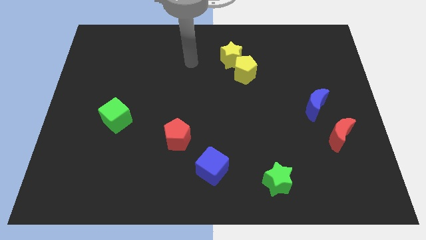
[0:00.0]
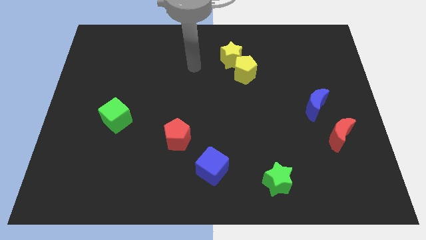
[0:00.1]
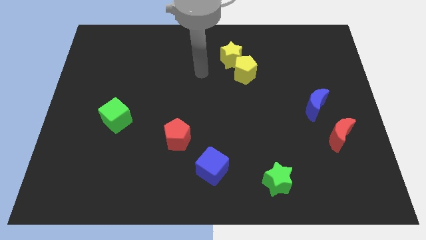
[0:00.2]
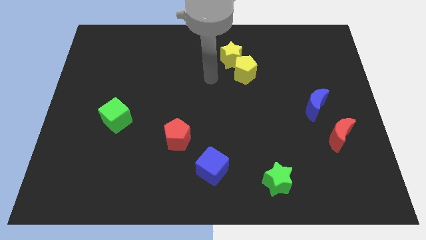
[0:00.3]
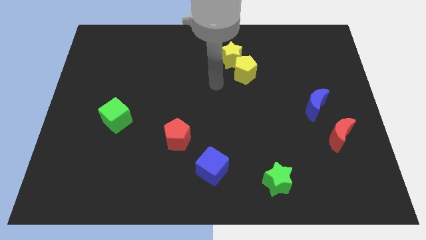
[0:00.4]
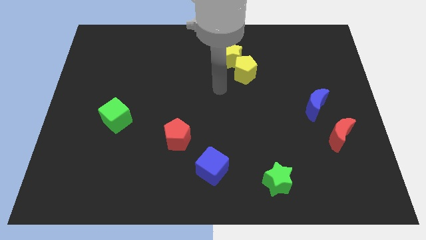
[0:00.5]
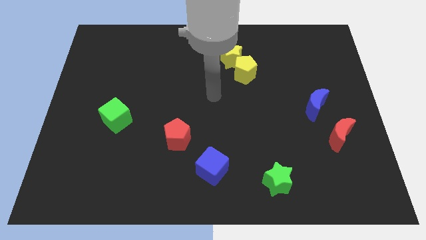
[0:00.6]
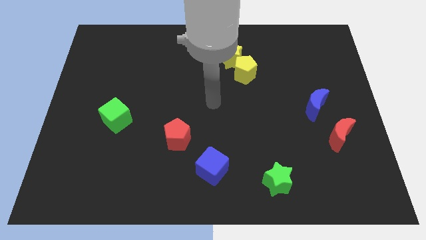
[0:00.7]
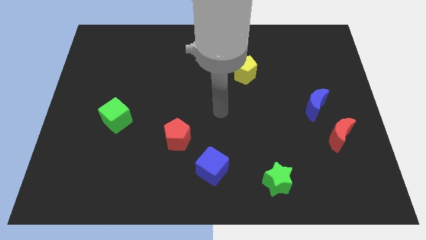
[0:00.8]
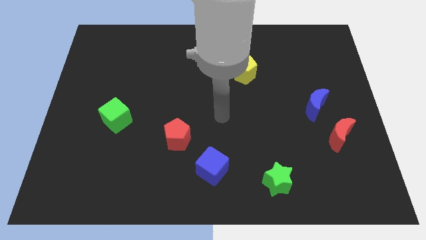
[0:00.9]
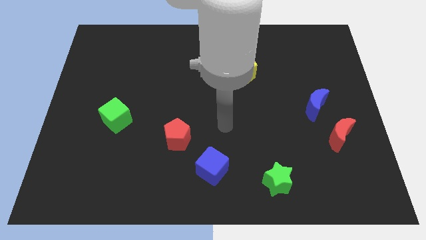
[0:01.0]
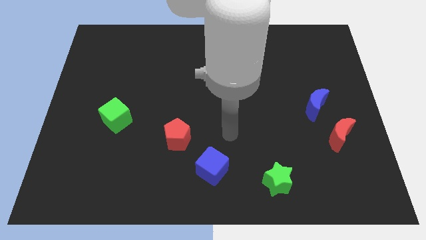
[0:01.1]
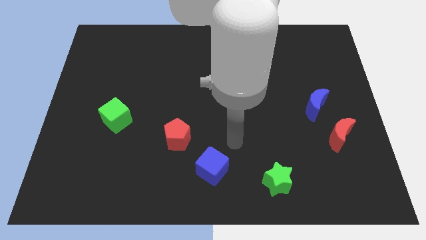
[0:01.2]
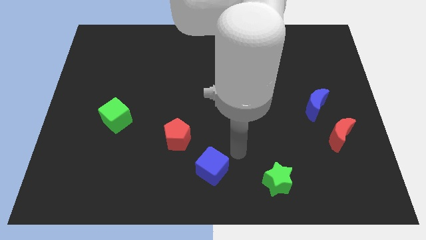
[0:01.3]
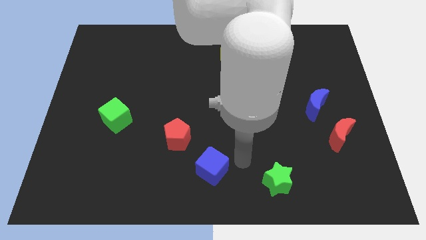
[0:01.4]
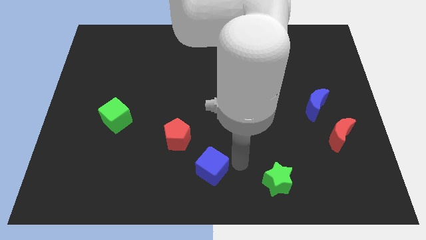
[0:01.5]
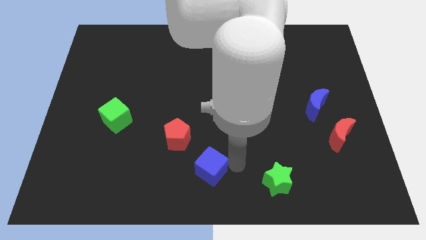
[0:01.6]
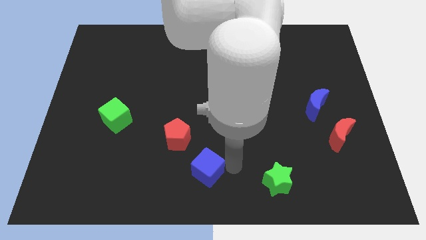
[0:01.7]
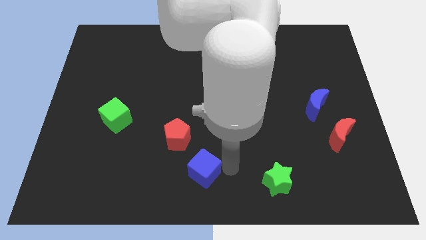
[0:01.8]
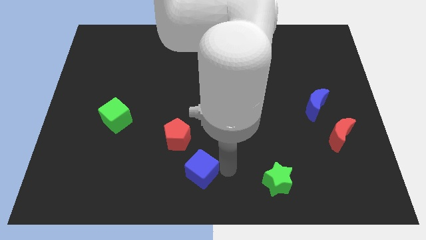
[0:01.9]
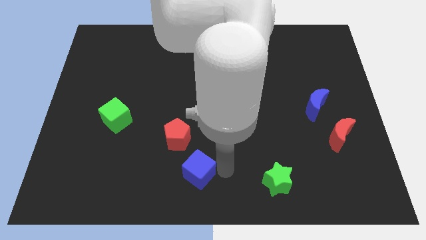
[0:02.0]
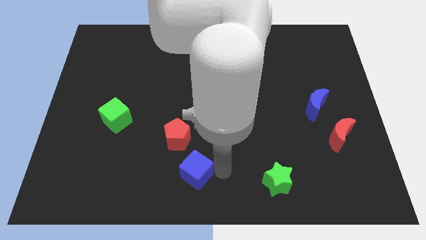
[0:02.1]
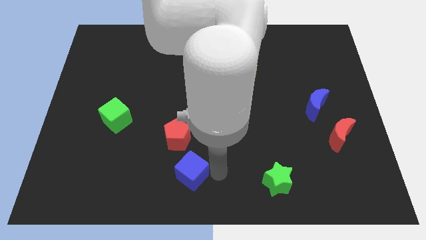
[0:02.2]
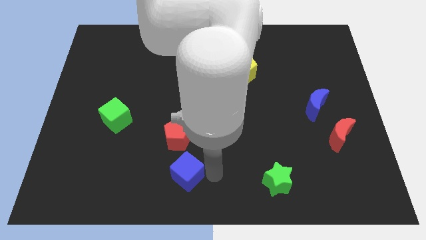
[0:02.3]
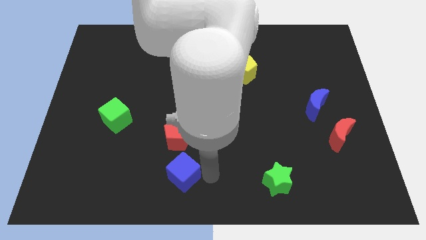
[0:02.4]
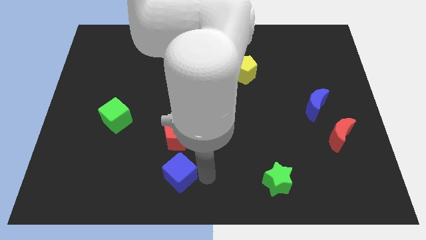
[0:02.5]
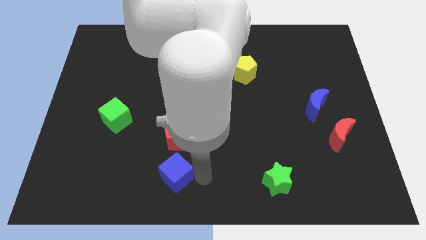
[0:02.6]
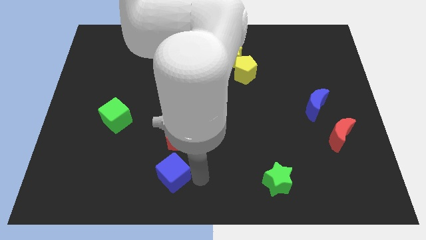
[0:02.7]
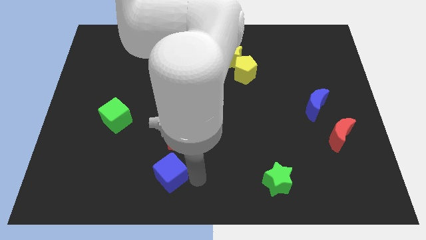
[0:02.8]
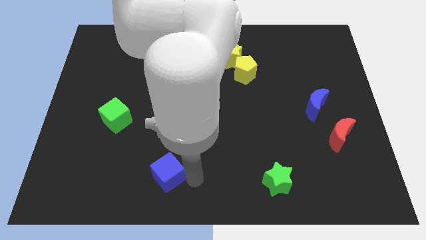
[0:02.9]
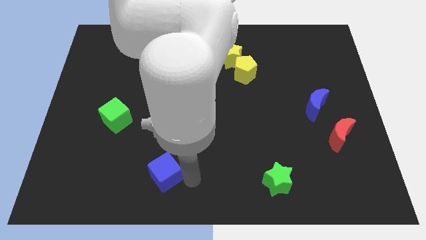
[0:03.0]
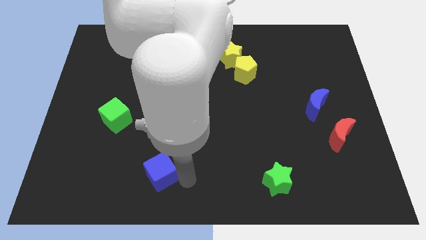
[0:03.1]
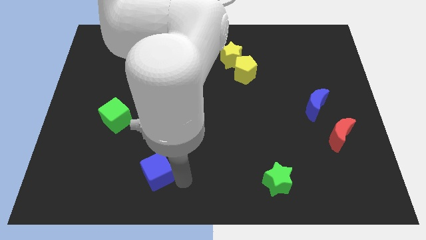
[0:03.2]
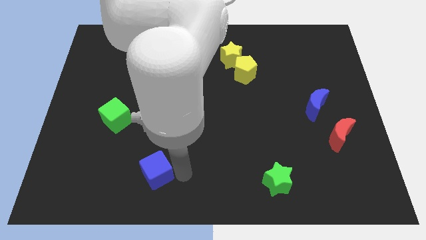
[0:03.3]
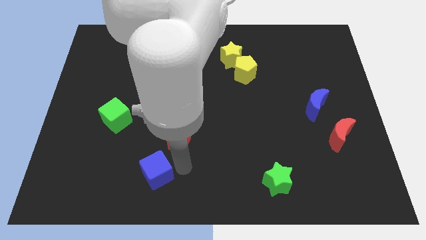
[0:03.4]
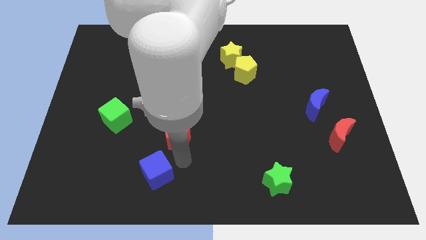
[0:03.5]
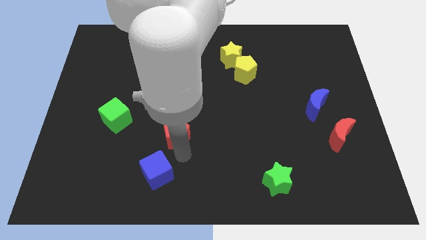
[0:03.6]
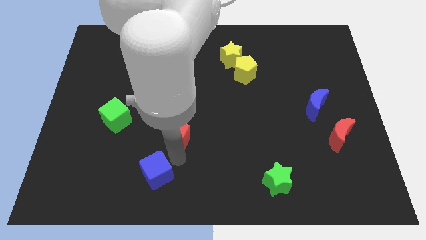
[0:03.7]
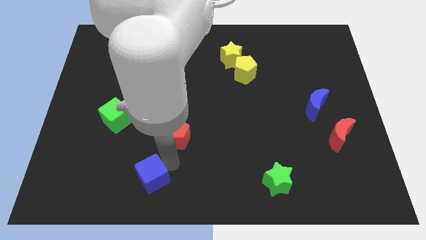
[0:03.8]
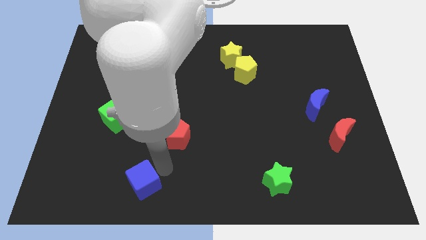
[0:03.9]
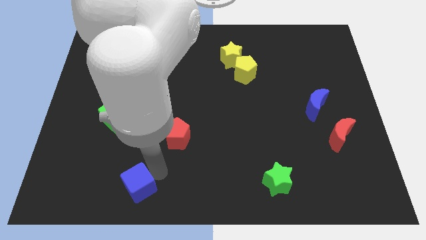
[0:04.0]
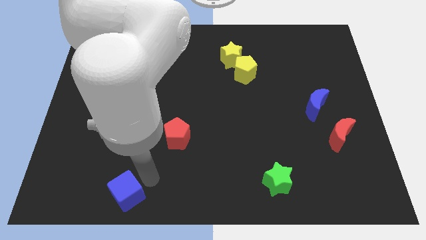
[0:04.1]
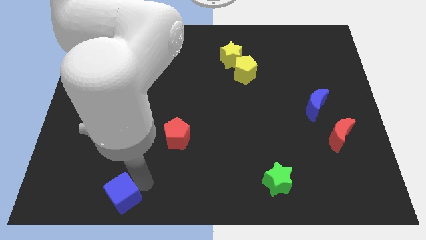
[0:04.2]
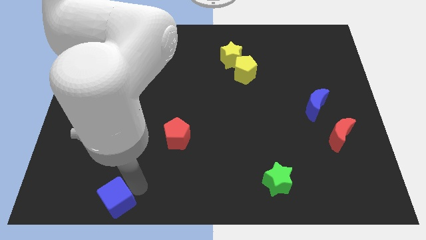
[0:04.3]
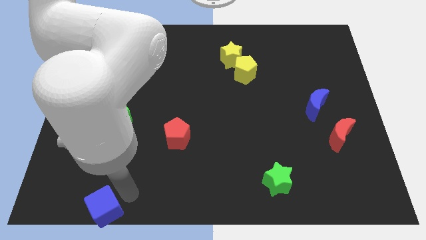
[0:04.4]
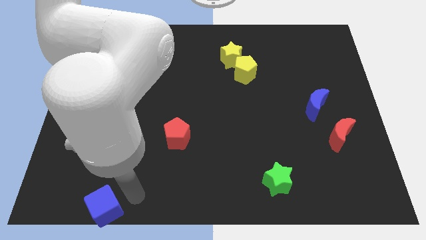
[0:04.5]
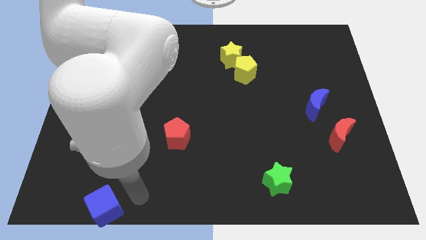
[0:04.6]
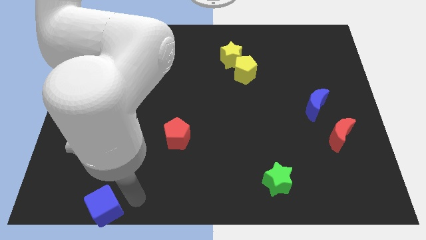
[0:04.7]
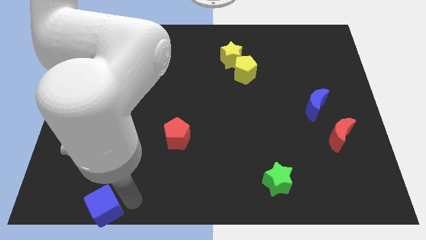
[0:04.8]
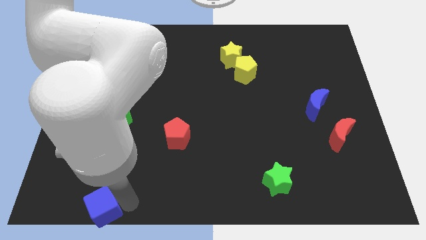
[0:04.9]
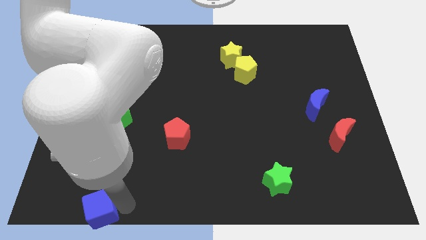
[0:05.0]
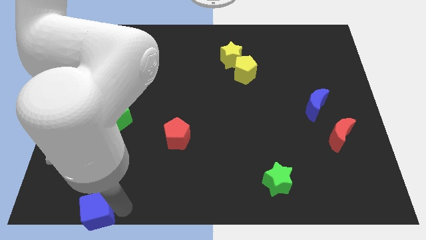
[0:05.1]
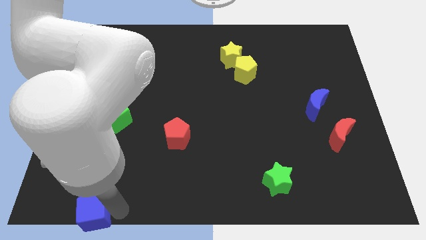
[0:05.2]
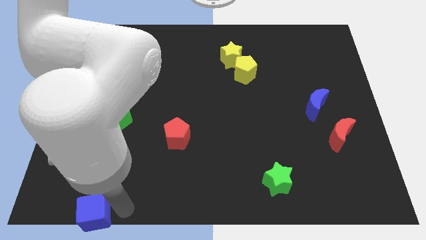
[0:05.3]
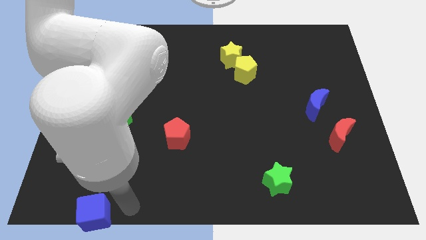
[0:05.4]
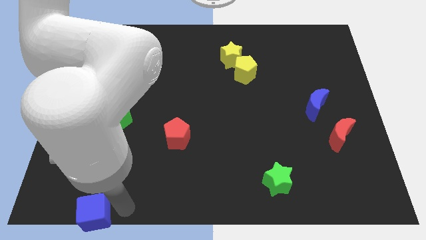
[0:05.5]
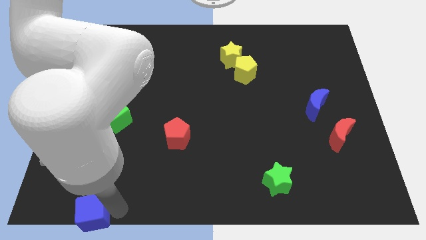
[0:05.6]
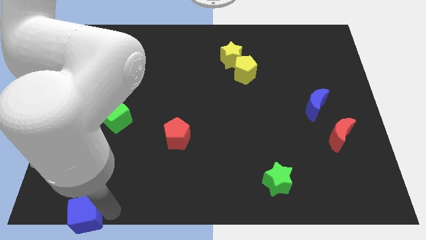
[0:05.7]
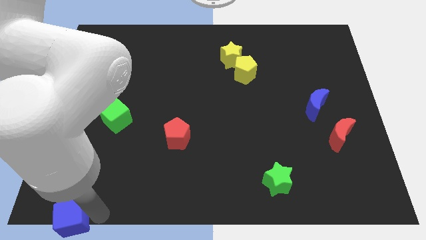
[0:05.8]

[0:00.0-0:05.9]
put the blue cube to the bottom left corner

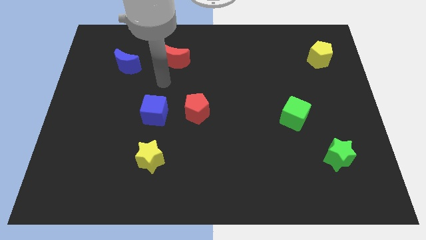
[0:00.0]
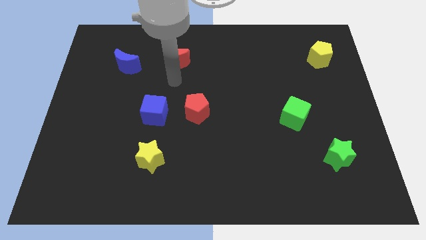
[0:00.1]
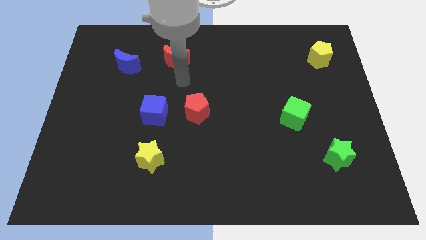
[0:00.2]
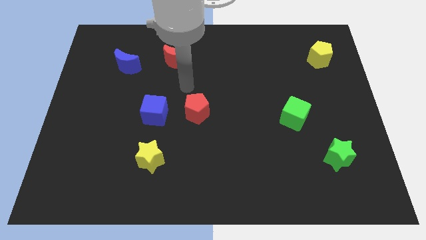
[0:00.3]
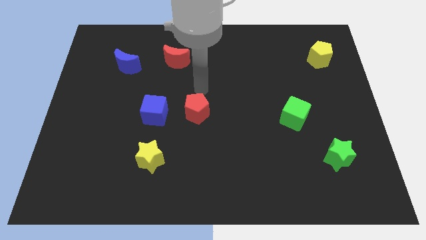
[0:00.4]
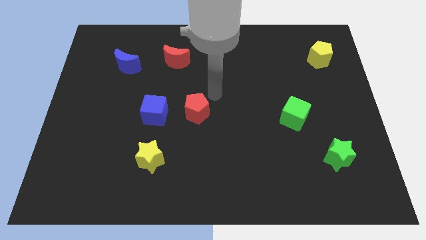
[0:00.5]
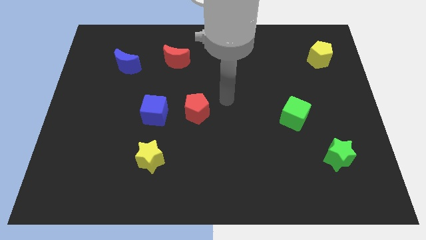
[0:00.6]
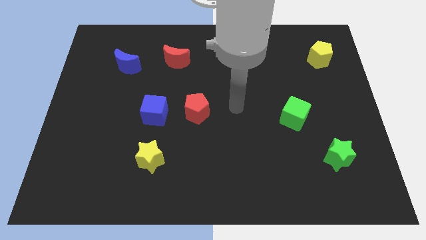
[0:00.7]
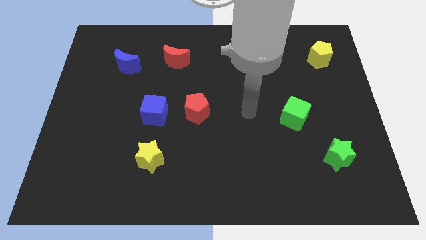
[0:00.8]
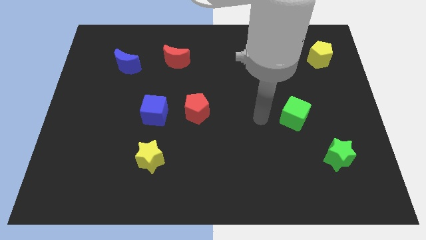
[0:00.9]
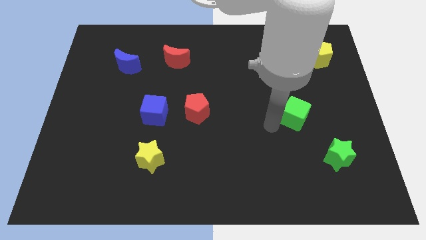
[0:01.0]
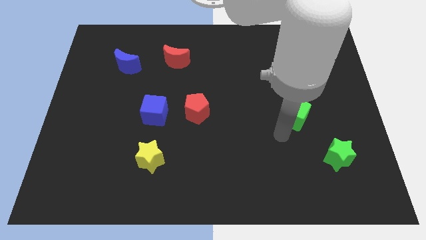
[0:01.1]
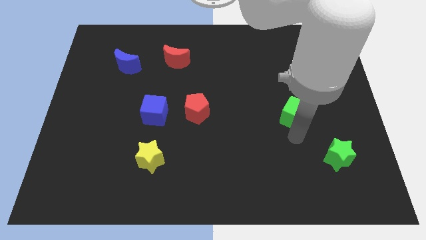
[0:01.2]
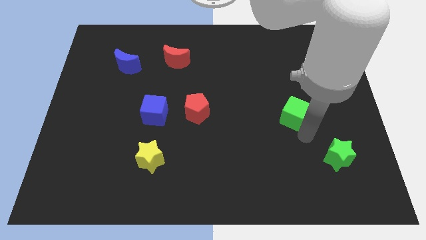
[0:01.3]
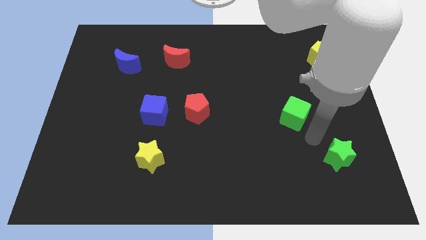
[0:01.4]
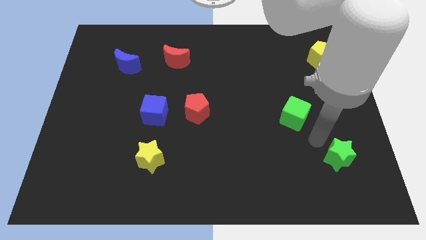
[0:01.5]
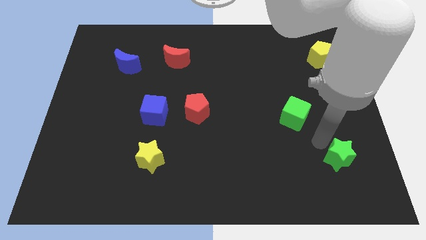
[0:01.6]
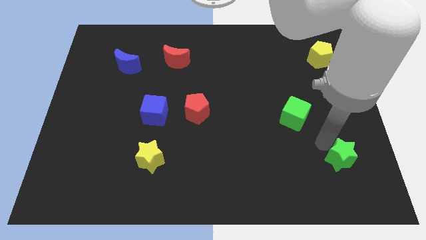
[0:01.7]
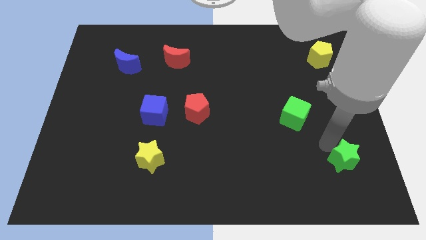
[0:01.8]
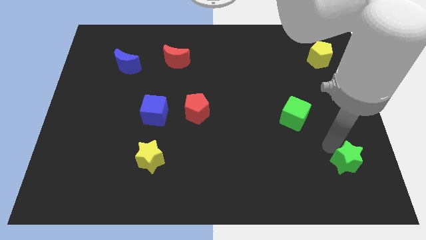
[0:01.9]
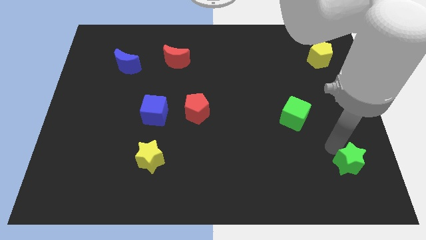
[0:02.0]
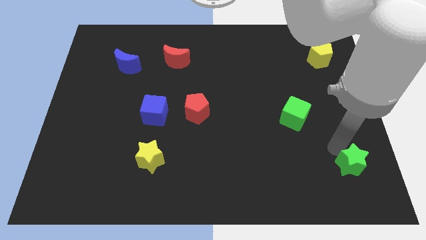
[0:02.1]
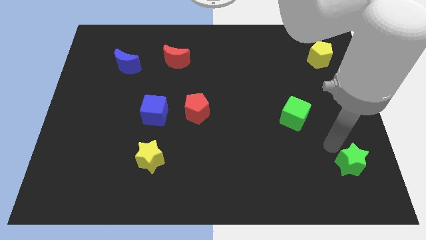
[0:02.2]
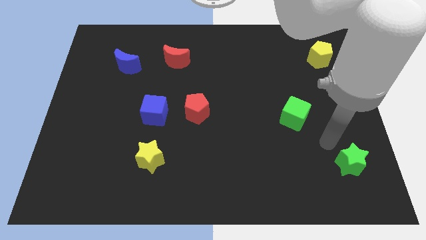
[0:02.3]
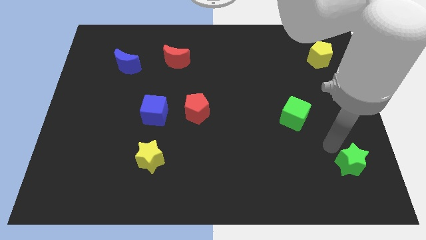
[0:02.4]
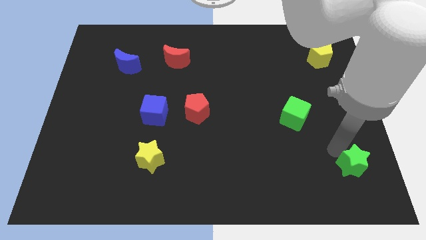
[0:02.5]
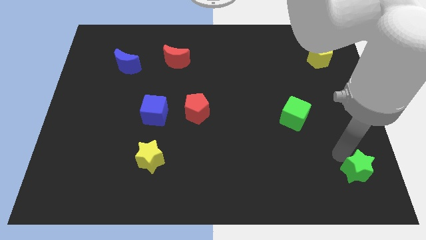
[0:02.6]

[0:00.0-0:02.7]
push the green star to the bottom right corner
